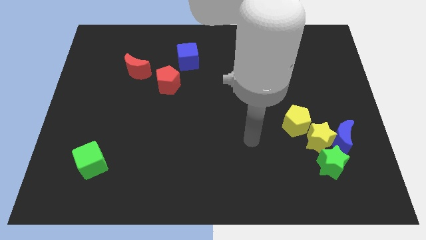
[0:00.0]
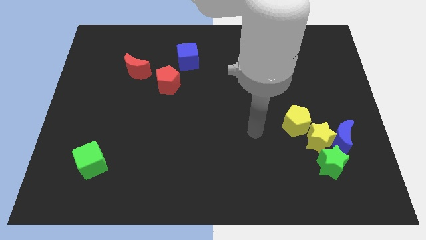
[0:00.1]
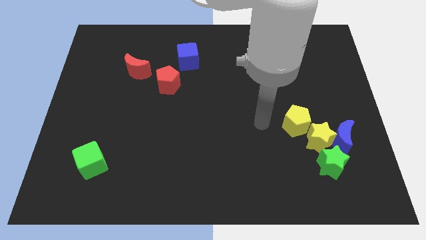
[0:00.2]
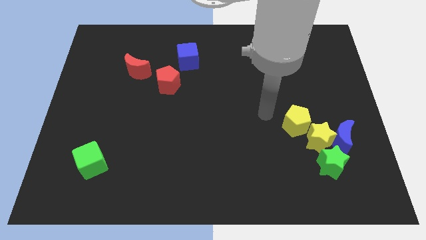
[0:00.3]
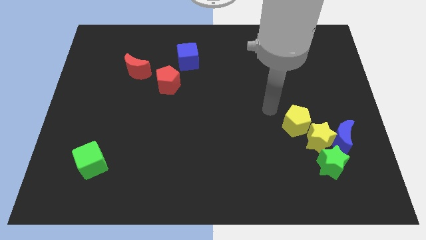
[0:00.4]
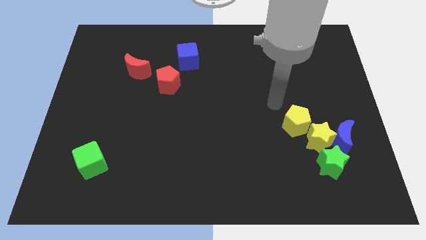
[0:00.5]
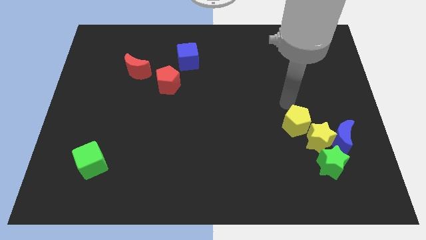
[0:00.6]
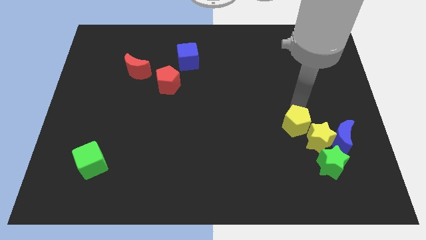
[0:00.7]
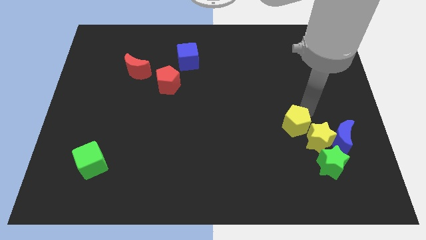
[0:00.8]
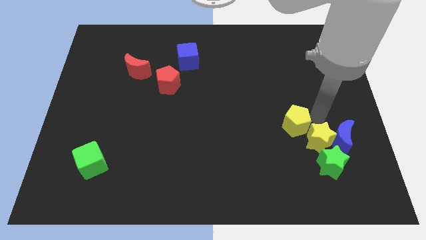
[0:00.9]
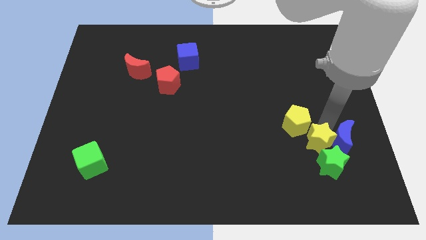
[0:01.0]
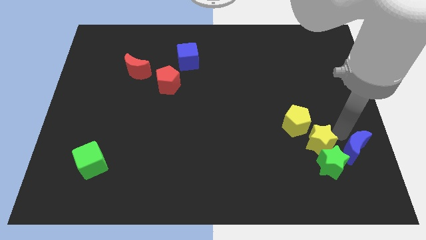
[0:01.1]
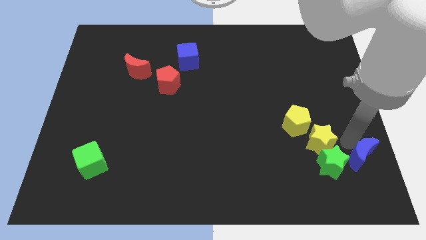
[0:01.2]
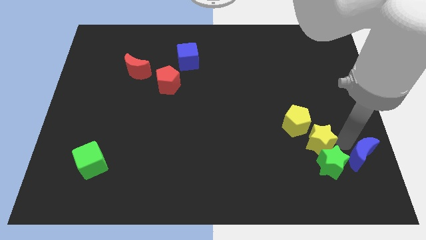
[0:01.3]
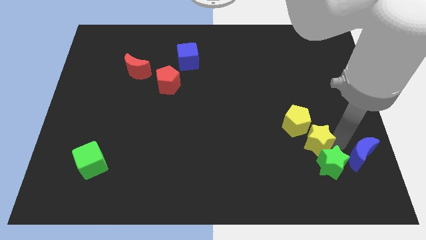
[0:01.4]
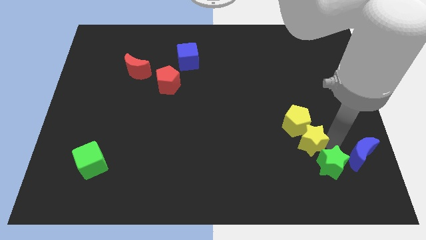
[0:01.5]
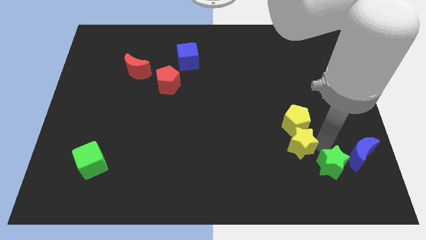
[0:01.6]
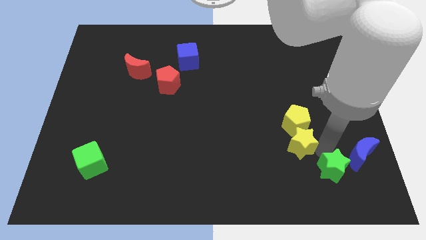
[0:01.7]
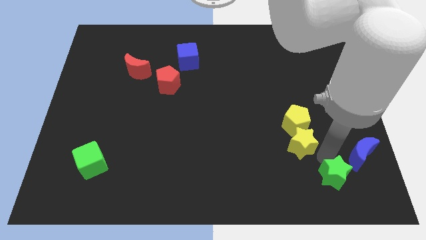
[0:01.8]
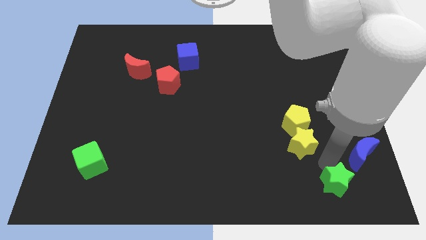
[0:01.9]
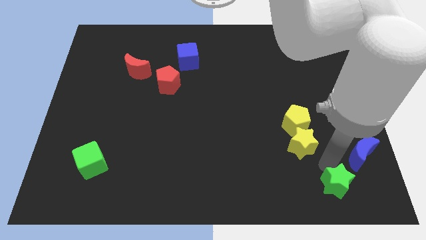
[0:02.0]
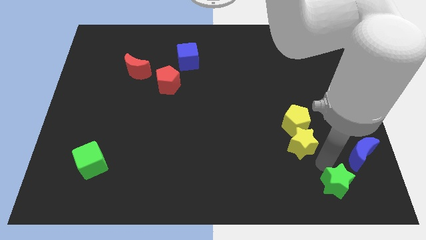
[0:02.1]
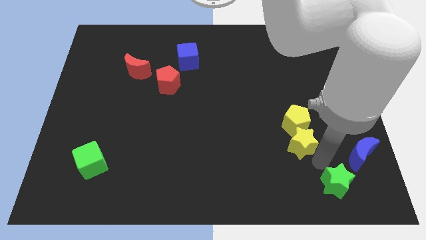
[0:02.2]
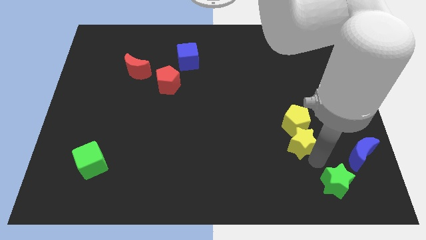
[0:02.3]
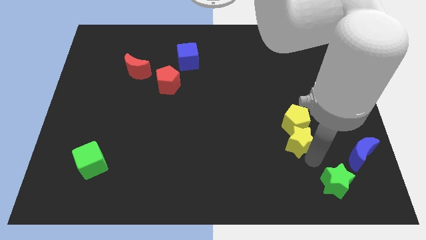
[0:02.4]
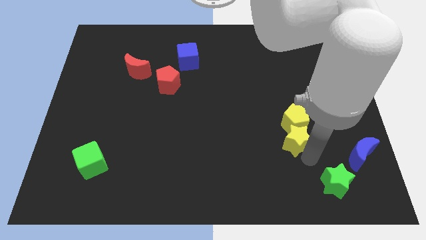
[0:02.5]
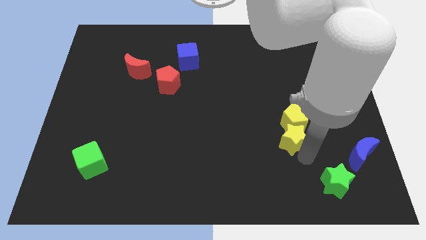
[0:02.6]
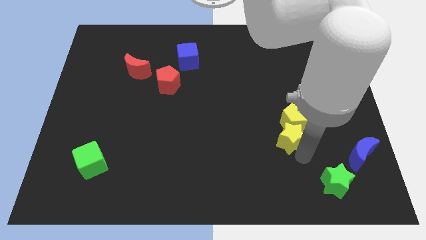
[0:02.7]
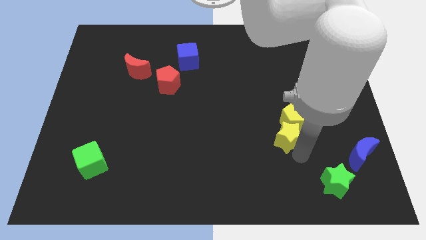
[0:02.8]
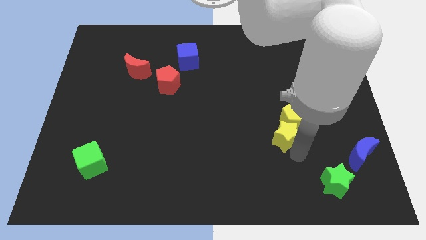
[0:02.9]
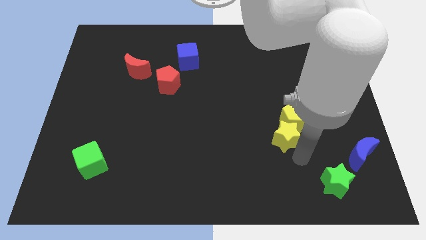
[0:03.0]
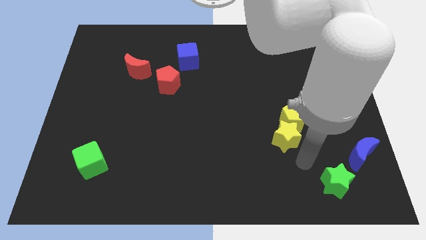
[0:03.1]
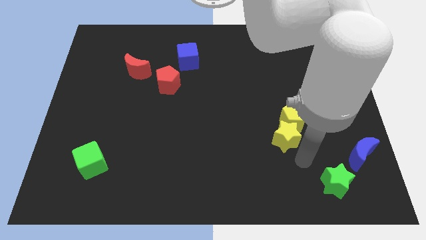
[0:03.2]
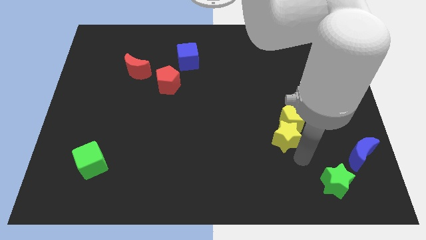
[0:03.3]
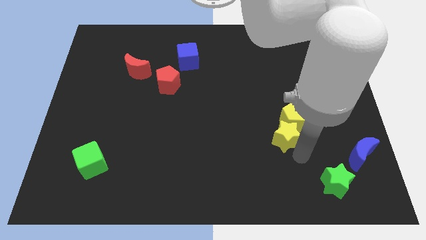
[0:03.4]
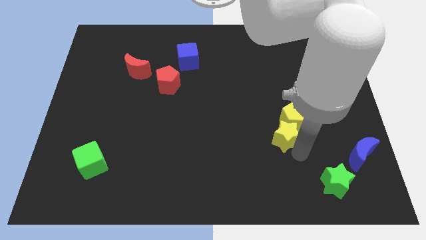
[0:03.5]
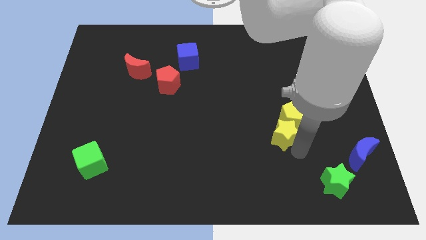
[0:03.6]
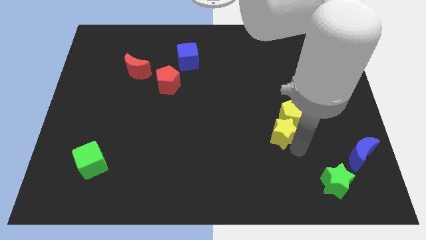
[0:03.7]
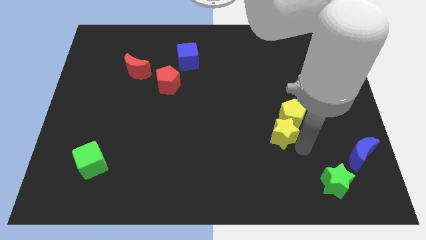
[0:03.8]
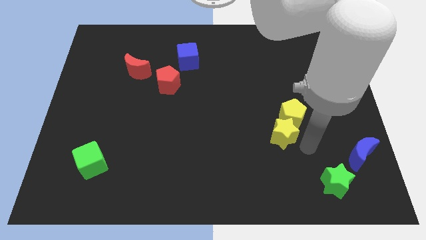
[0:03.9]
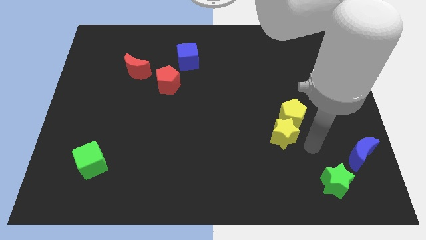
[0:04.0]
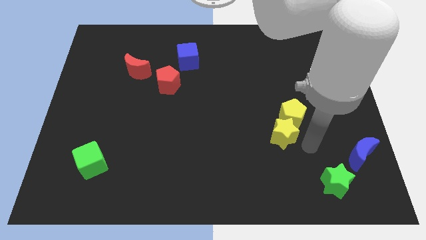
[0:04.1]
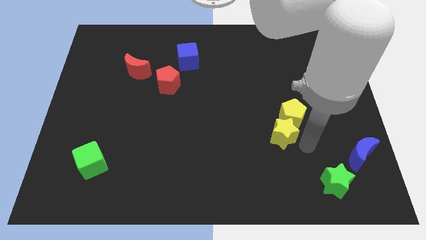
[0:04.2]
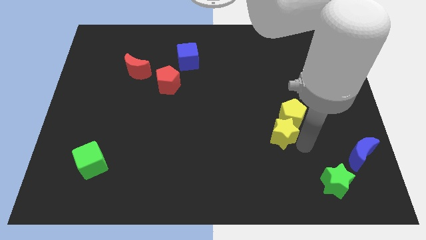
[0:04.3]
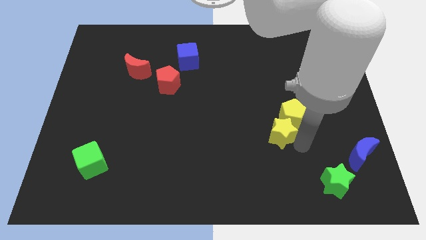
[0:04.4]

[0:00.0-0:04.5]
pull the yellow star apart from the blue moon, green star, and yellow pentagon

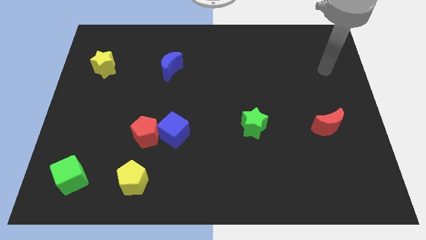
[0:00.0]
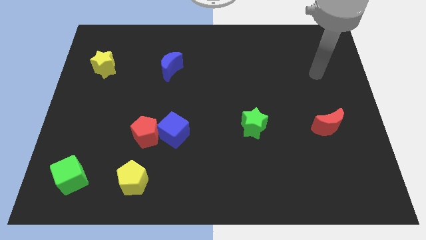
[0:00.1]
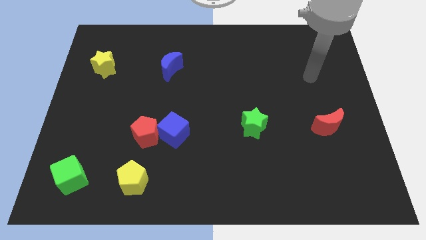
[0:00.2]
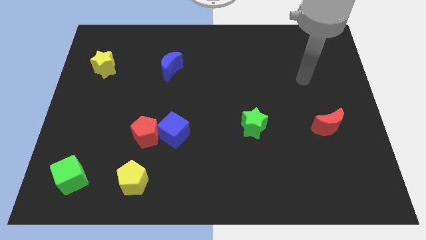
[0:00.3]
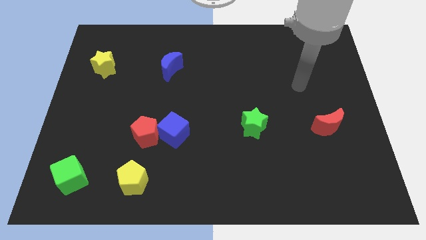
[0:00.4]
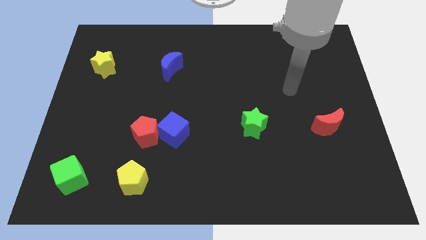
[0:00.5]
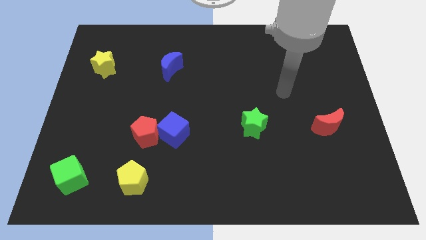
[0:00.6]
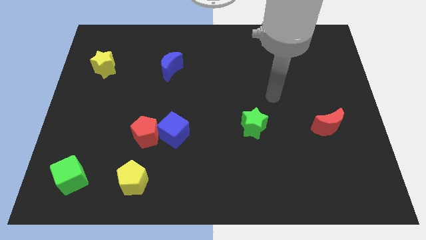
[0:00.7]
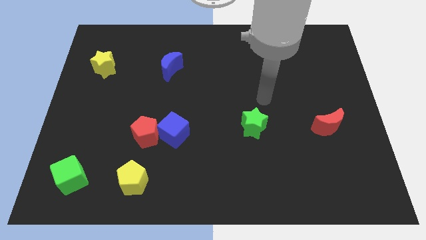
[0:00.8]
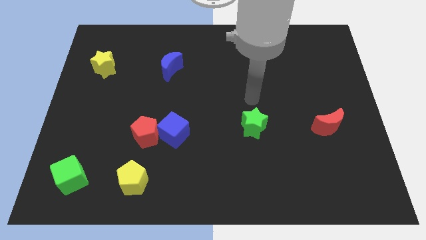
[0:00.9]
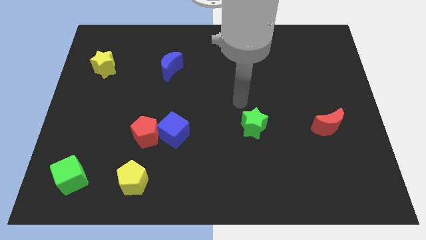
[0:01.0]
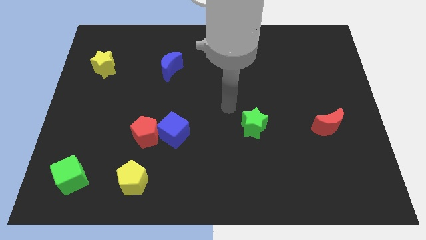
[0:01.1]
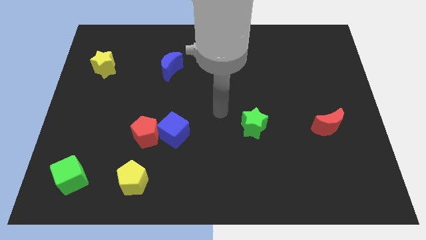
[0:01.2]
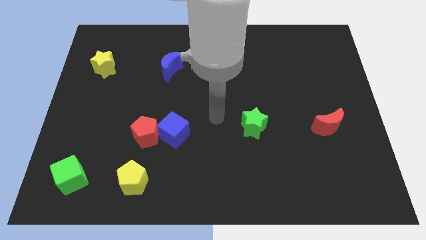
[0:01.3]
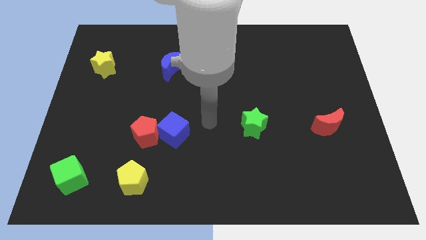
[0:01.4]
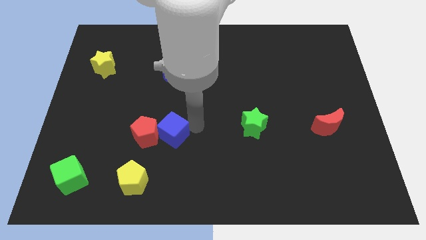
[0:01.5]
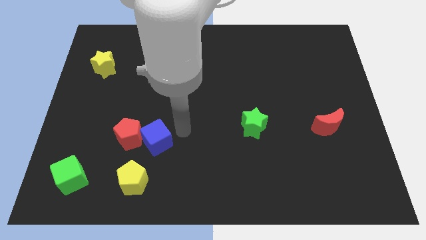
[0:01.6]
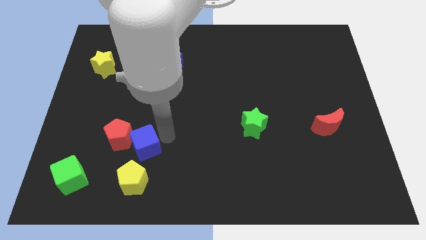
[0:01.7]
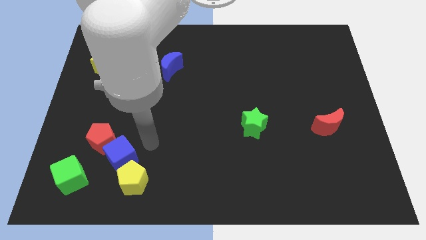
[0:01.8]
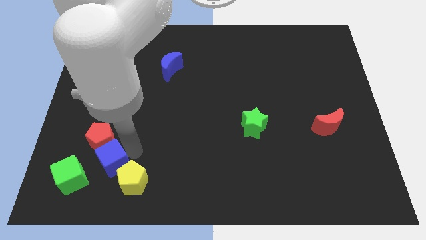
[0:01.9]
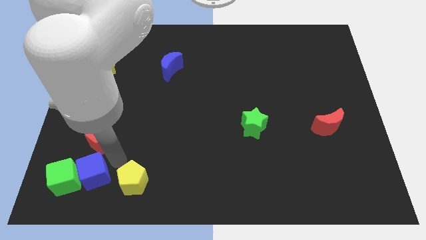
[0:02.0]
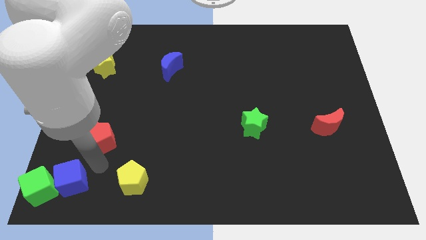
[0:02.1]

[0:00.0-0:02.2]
pull the red pentagon apart from the blue cube

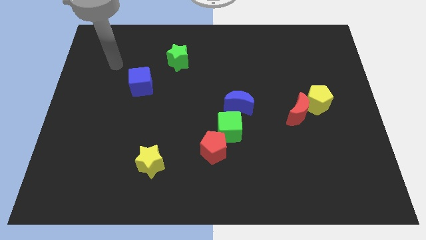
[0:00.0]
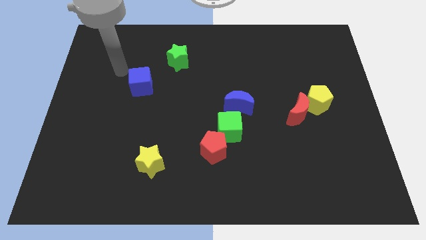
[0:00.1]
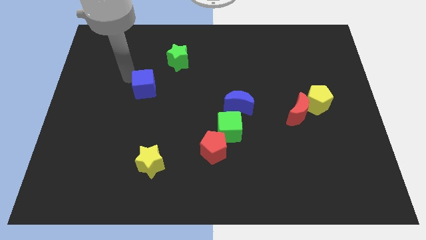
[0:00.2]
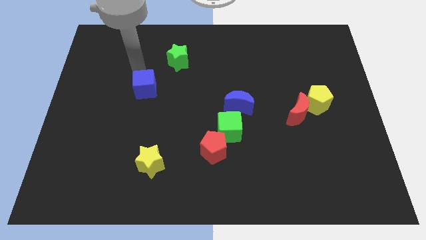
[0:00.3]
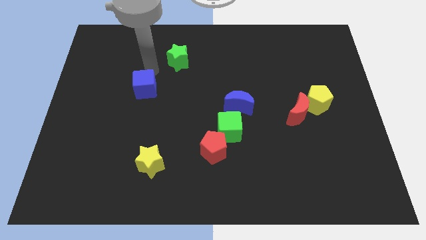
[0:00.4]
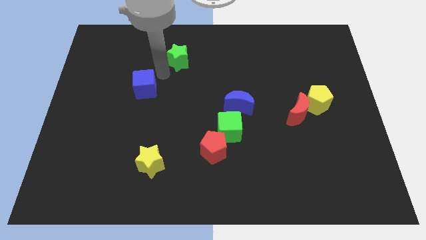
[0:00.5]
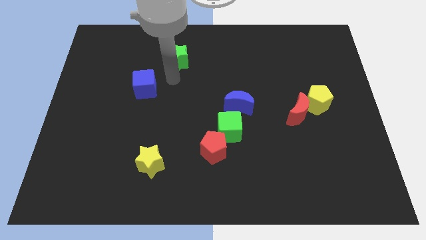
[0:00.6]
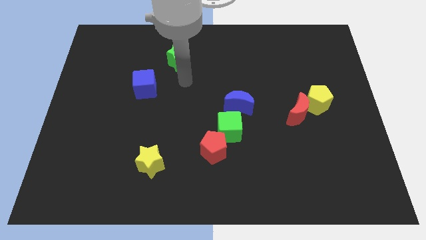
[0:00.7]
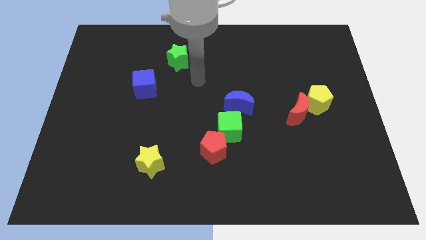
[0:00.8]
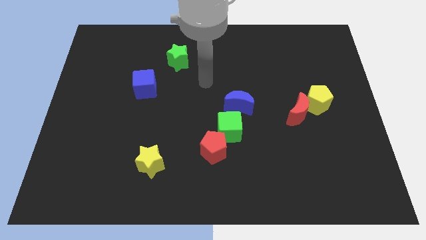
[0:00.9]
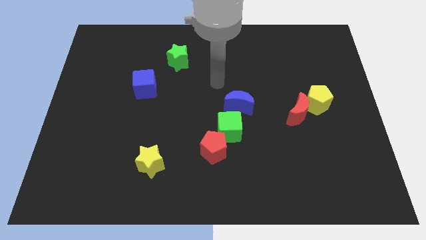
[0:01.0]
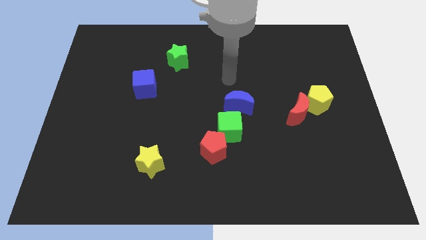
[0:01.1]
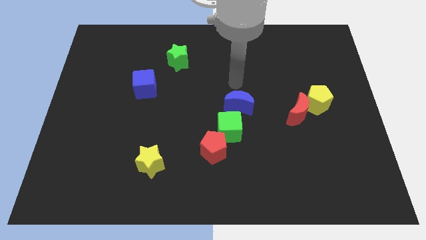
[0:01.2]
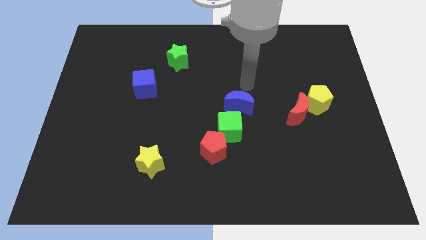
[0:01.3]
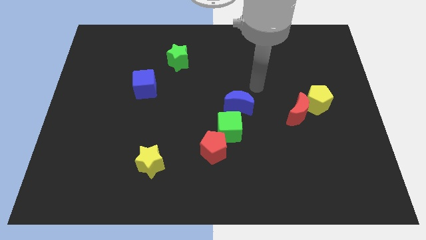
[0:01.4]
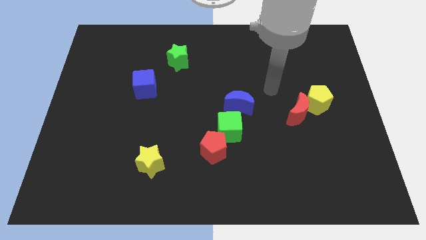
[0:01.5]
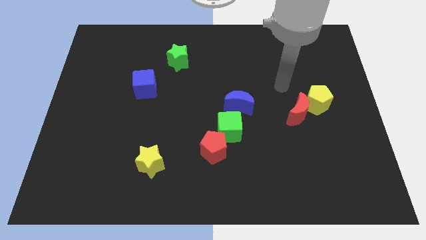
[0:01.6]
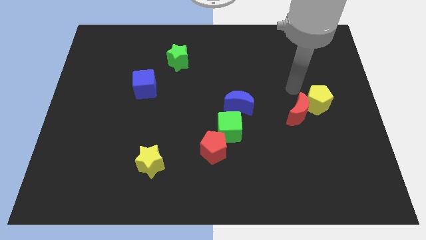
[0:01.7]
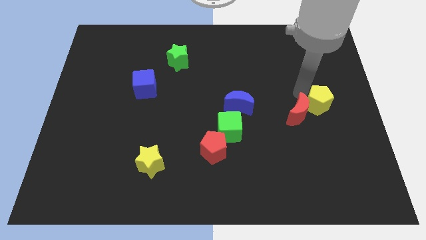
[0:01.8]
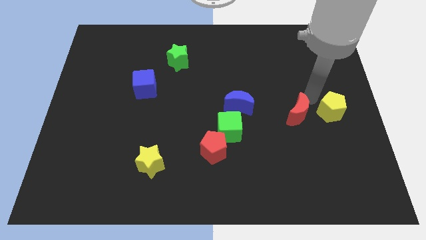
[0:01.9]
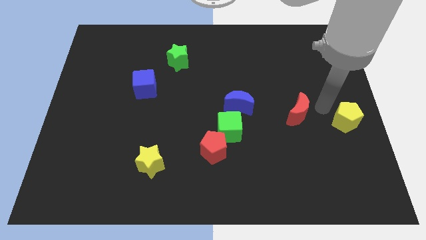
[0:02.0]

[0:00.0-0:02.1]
move the red moon away from the yellow pentagon

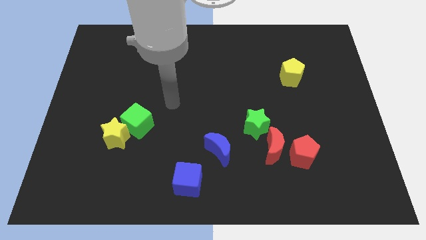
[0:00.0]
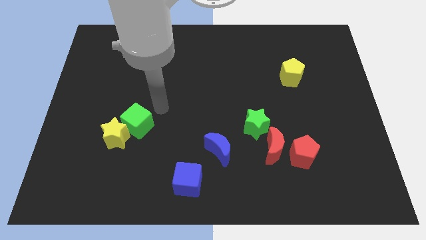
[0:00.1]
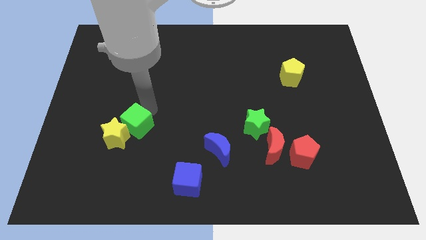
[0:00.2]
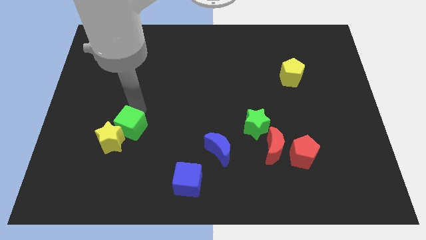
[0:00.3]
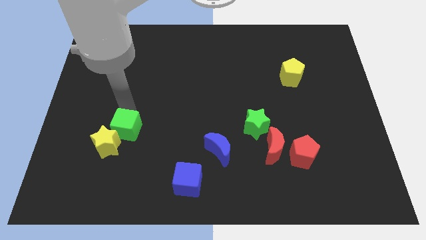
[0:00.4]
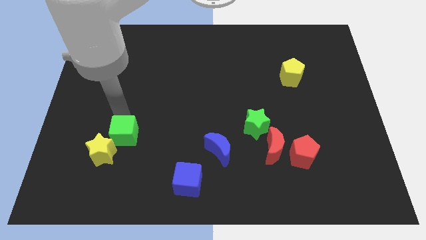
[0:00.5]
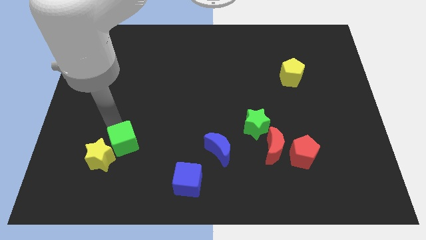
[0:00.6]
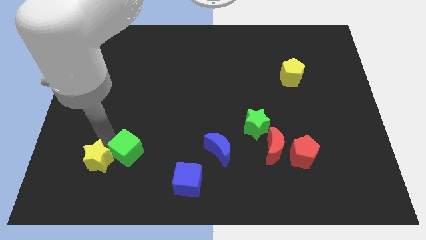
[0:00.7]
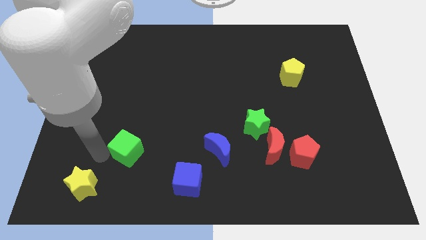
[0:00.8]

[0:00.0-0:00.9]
move the green cube away from the yellow star
